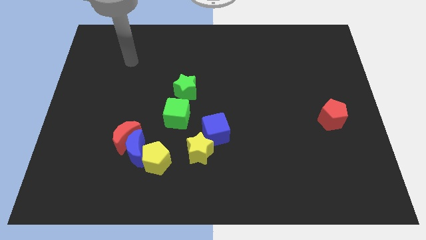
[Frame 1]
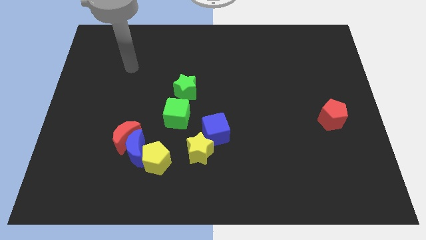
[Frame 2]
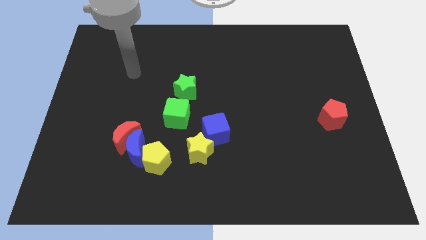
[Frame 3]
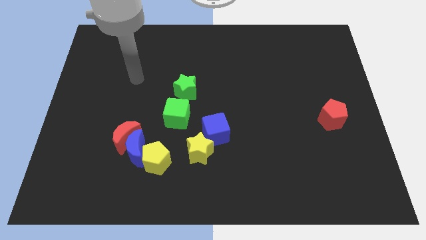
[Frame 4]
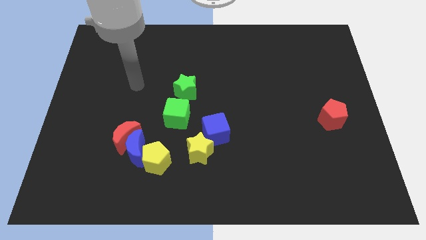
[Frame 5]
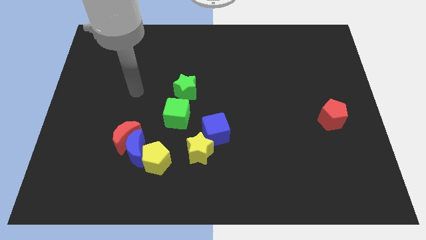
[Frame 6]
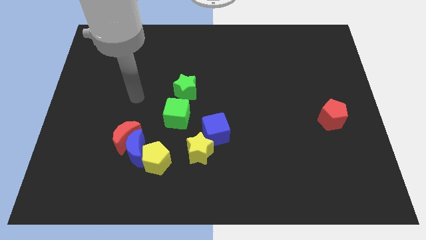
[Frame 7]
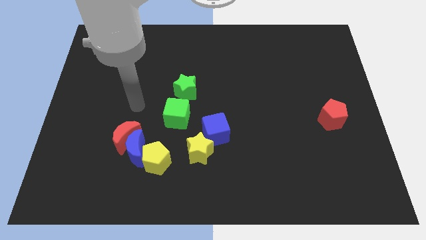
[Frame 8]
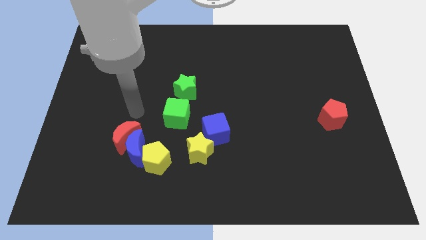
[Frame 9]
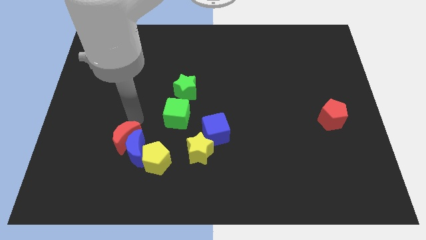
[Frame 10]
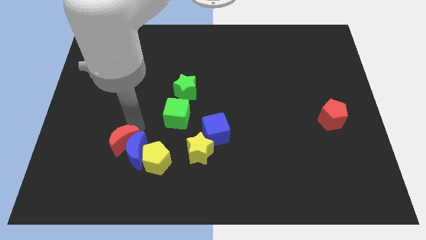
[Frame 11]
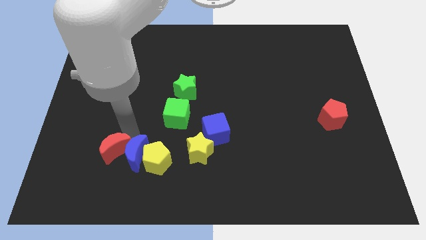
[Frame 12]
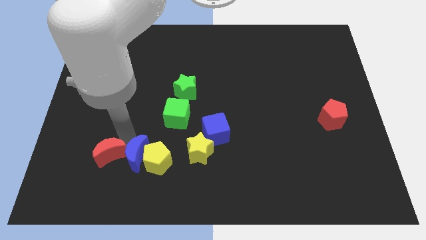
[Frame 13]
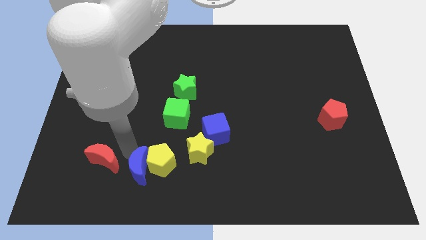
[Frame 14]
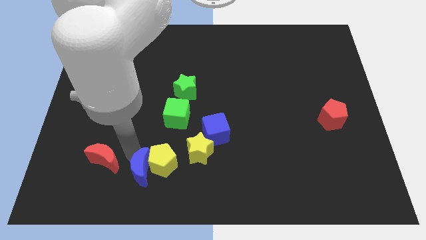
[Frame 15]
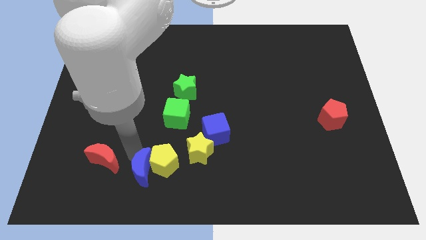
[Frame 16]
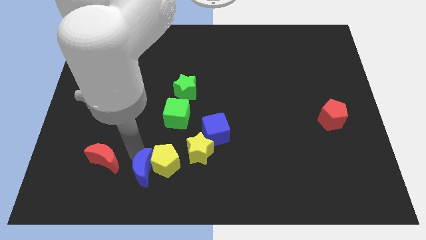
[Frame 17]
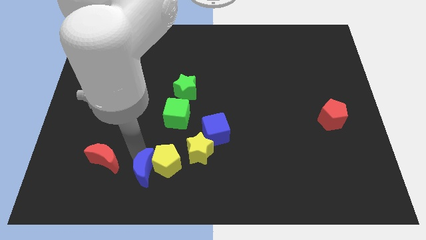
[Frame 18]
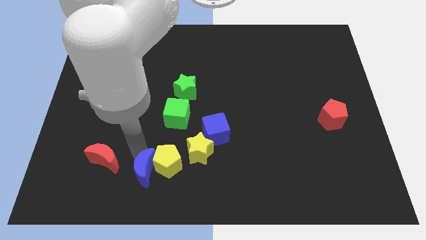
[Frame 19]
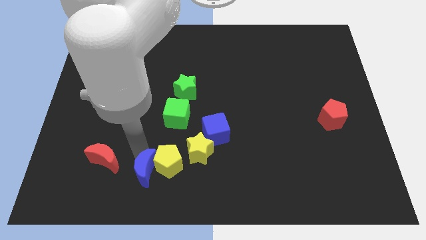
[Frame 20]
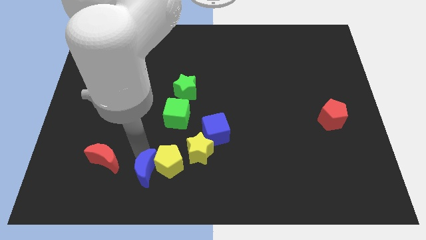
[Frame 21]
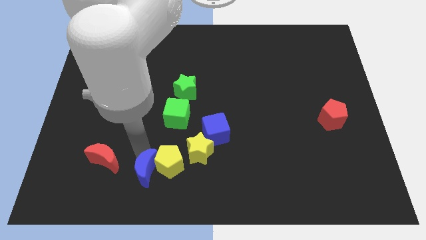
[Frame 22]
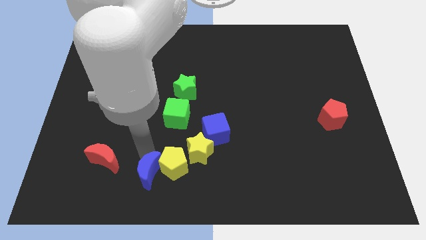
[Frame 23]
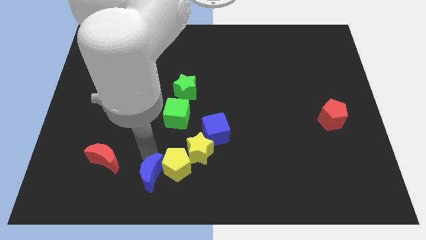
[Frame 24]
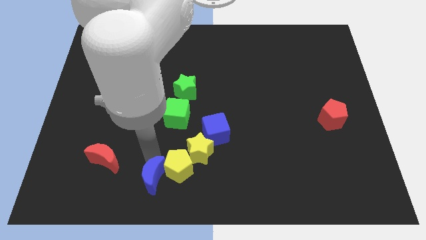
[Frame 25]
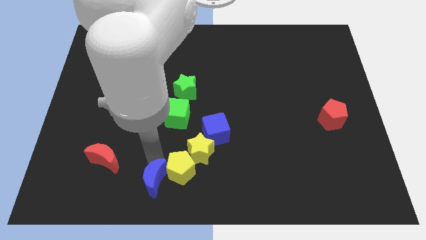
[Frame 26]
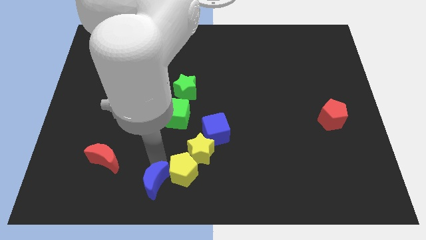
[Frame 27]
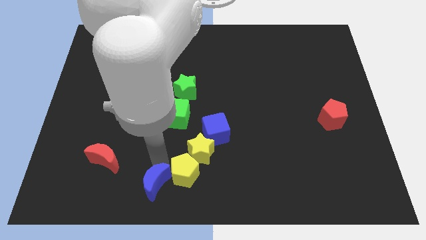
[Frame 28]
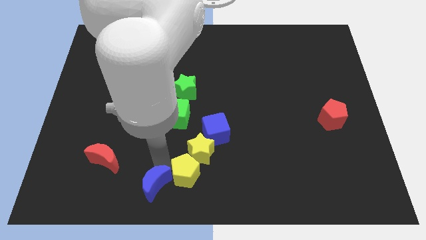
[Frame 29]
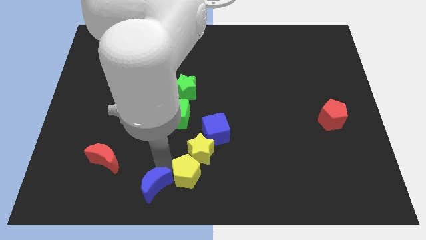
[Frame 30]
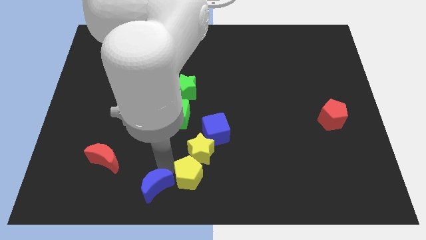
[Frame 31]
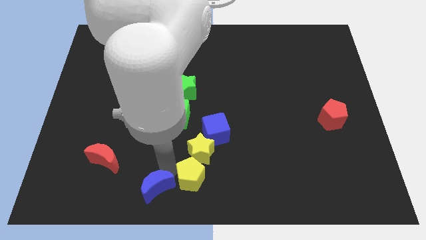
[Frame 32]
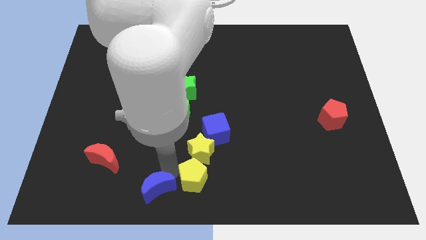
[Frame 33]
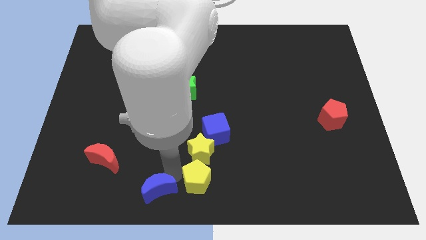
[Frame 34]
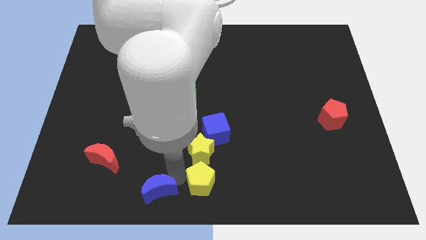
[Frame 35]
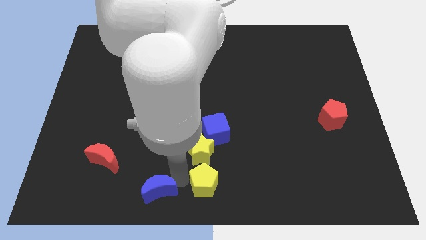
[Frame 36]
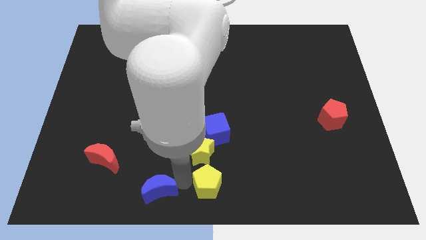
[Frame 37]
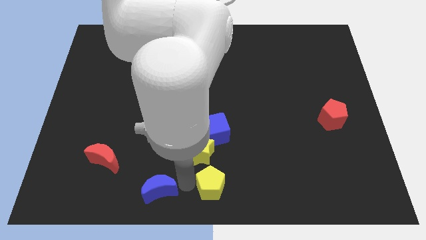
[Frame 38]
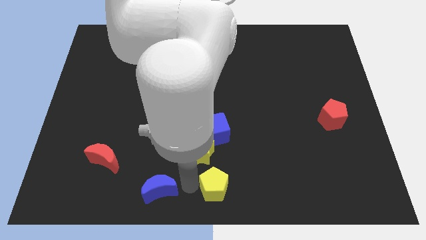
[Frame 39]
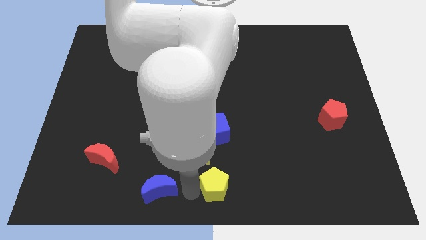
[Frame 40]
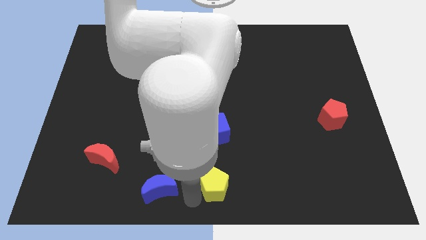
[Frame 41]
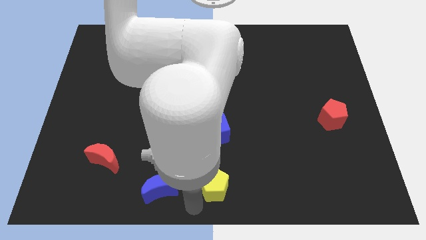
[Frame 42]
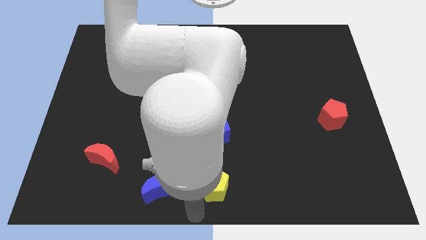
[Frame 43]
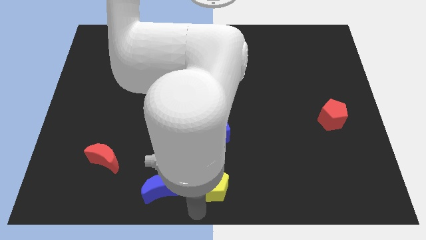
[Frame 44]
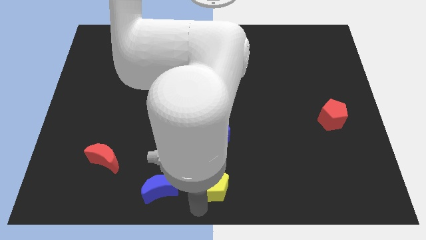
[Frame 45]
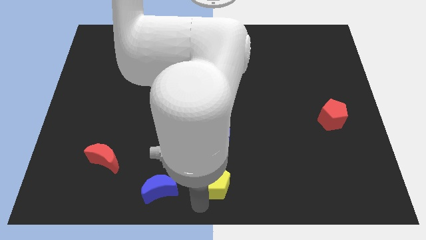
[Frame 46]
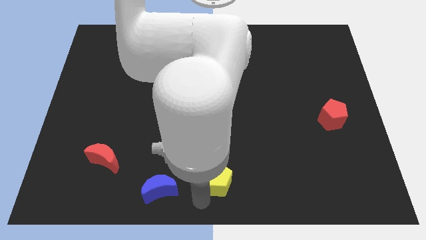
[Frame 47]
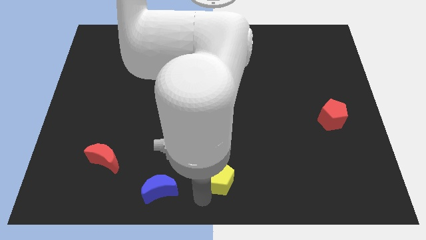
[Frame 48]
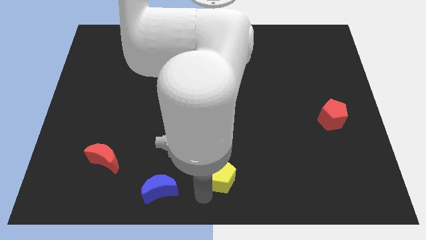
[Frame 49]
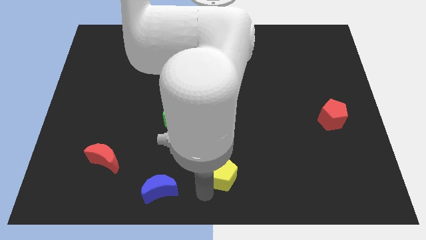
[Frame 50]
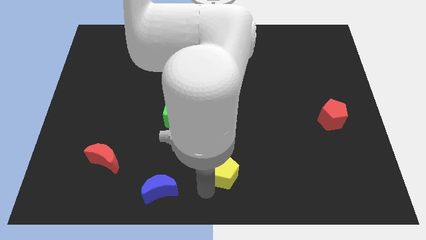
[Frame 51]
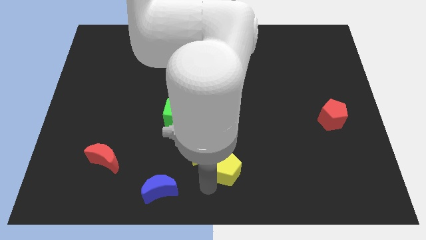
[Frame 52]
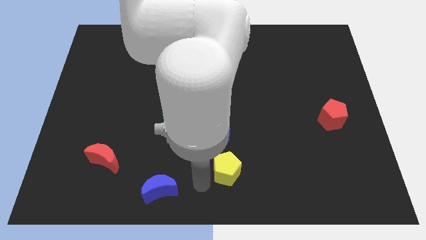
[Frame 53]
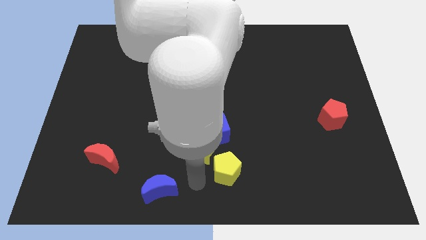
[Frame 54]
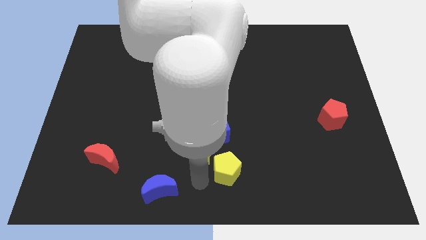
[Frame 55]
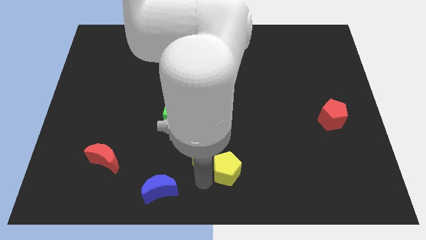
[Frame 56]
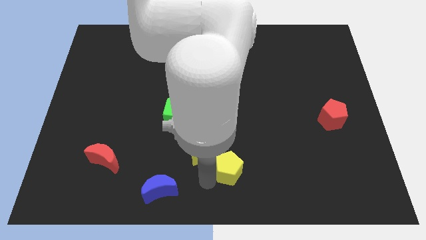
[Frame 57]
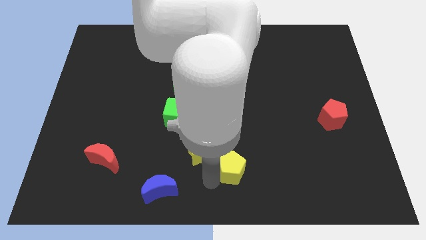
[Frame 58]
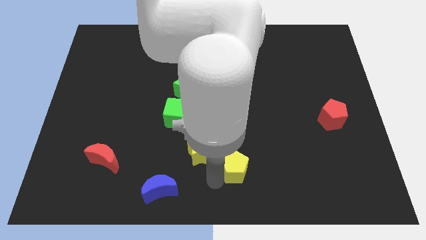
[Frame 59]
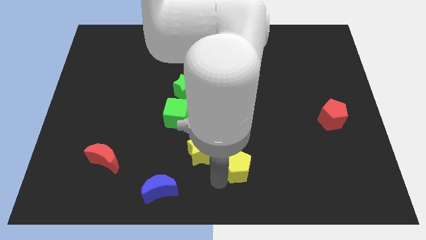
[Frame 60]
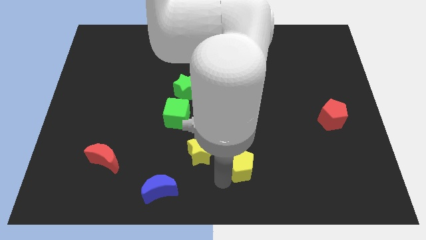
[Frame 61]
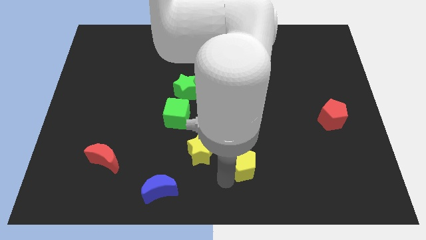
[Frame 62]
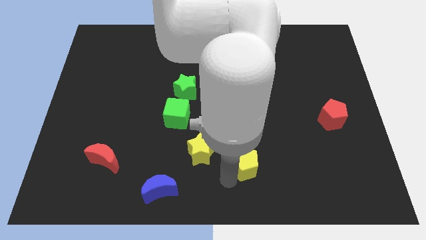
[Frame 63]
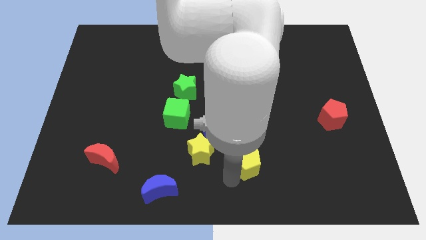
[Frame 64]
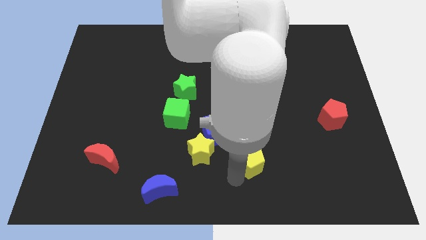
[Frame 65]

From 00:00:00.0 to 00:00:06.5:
push the yellow pentagon to the right

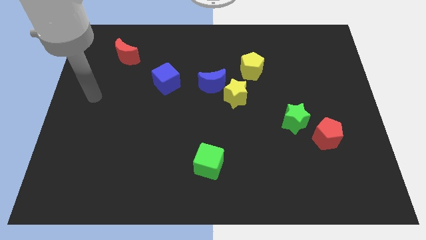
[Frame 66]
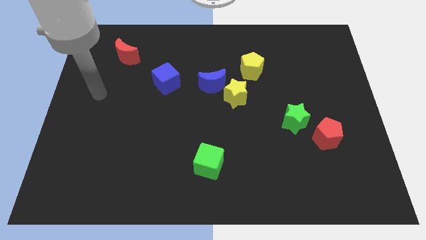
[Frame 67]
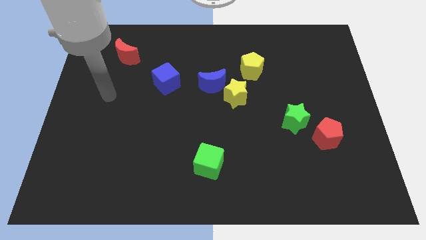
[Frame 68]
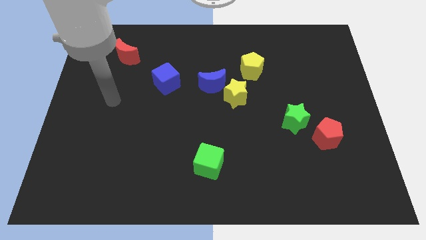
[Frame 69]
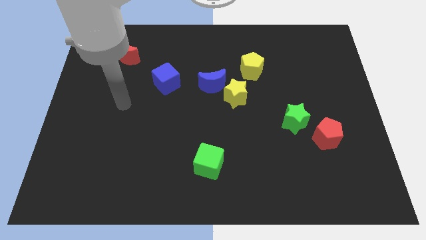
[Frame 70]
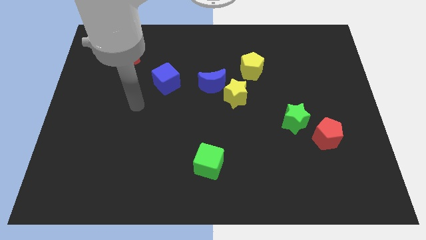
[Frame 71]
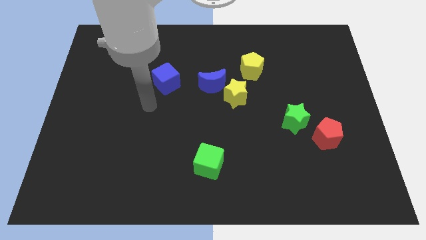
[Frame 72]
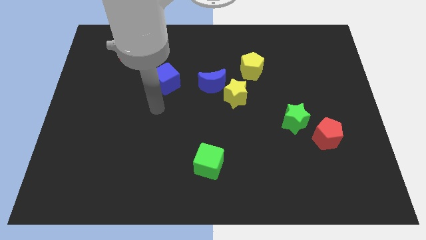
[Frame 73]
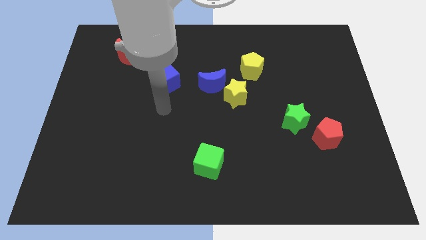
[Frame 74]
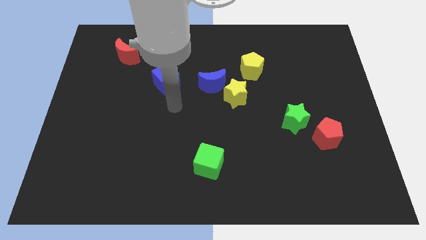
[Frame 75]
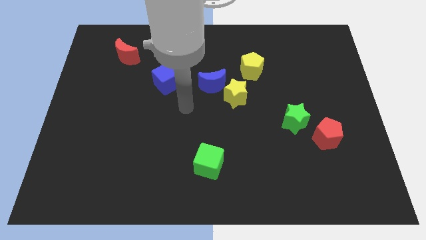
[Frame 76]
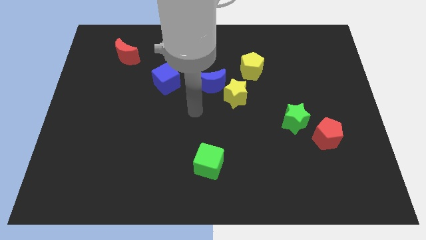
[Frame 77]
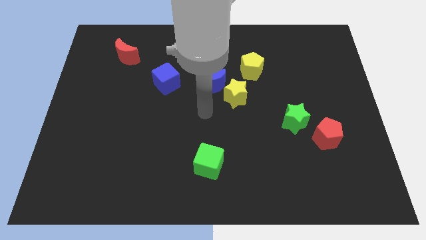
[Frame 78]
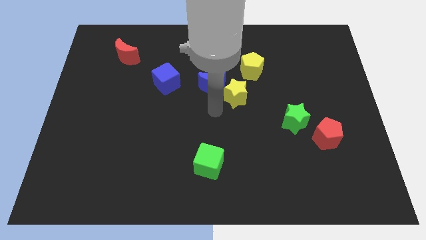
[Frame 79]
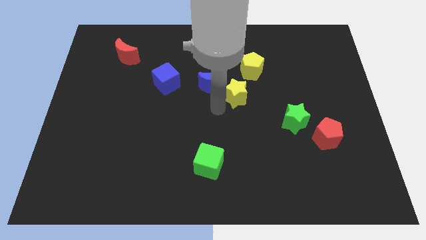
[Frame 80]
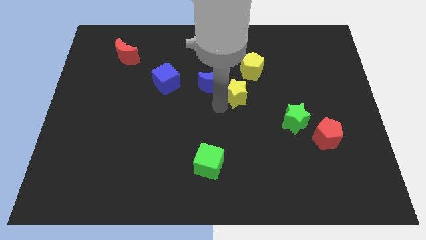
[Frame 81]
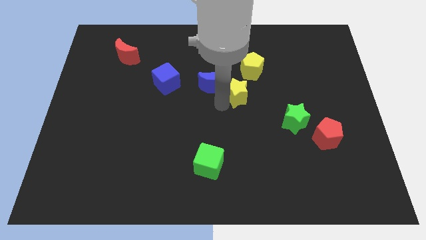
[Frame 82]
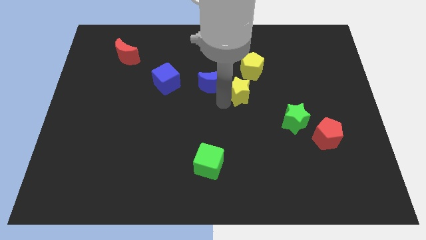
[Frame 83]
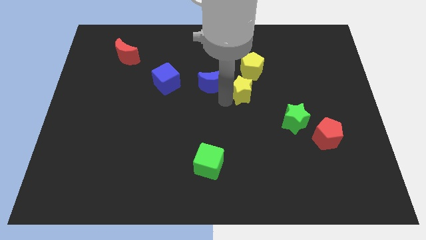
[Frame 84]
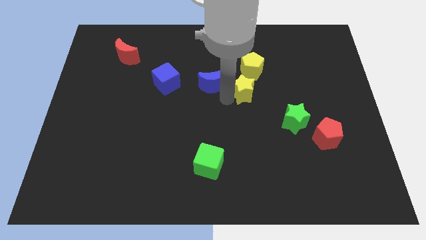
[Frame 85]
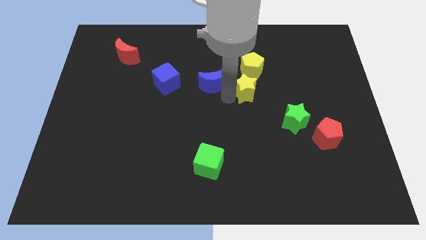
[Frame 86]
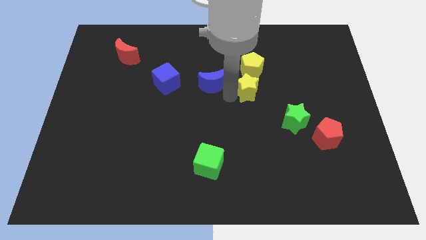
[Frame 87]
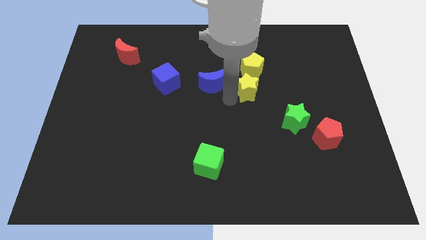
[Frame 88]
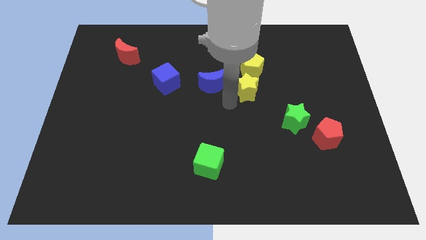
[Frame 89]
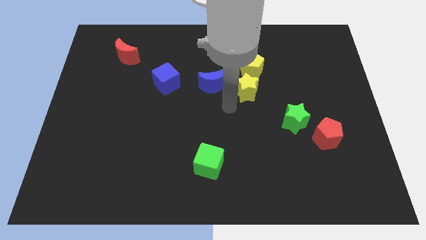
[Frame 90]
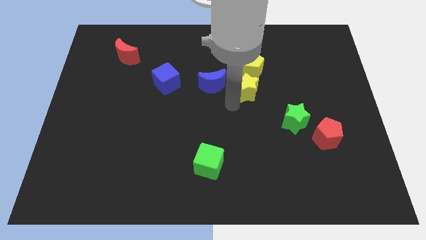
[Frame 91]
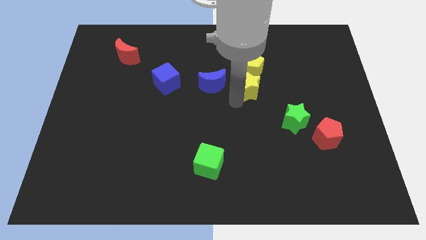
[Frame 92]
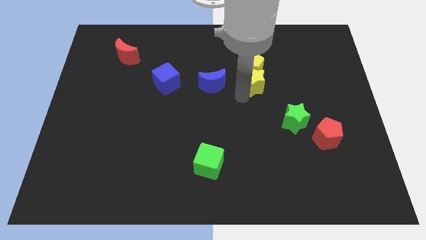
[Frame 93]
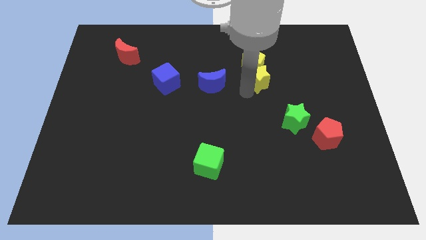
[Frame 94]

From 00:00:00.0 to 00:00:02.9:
slightly slide the yellow star up and to the right diagonally
